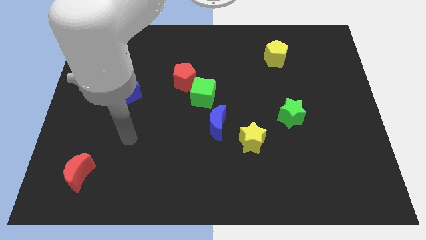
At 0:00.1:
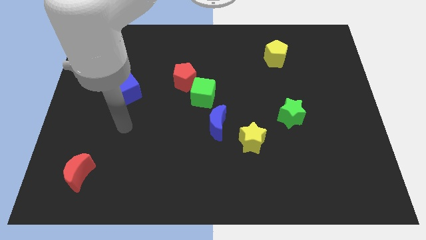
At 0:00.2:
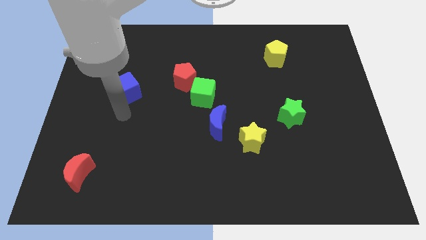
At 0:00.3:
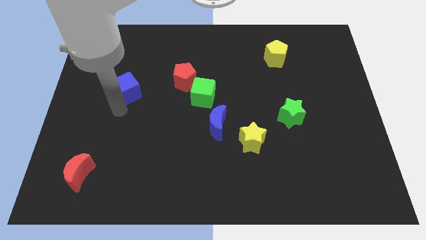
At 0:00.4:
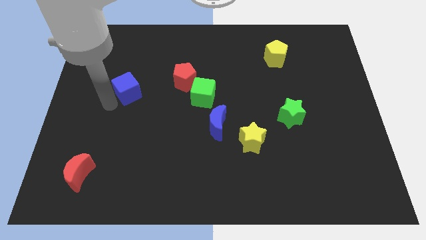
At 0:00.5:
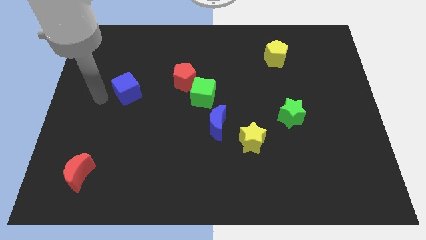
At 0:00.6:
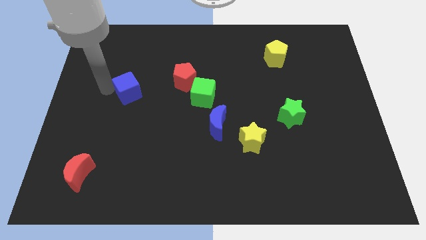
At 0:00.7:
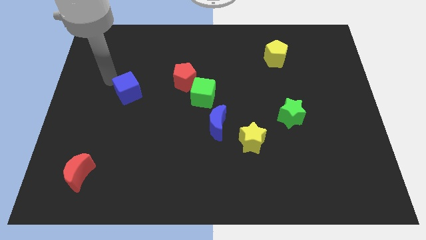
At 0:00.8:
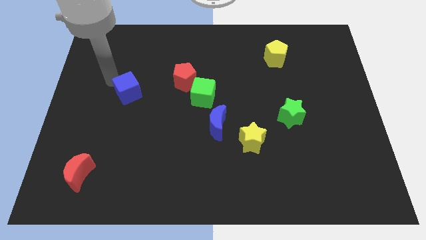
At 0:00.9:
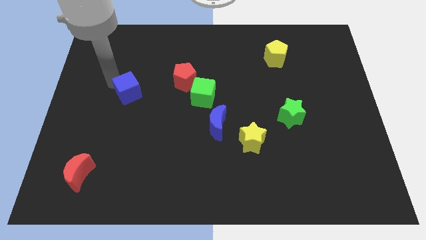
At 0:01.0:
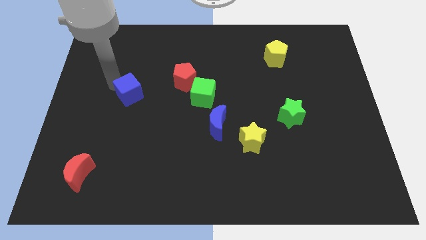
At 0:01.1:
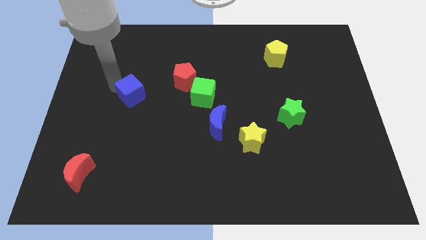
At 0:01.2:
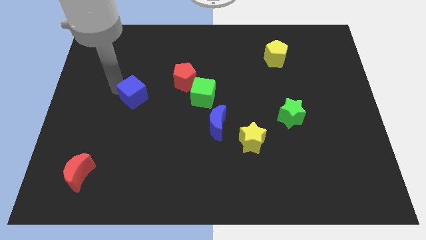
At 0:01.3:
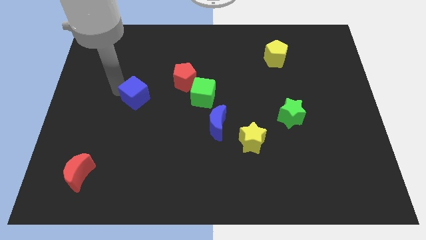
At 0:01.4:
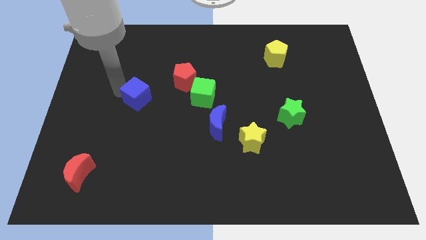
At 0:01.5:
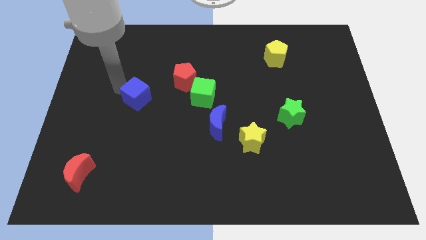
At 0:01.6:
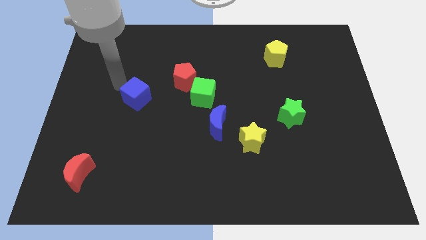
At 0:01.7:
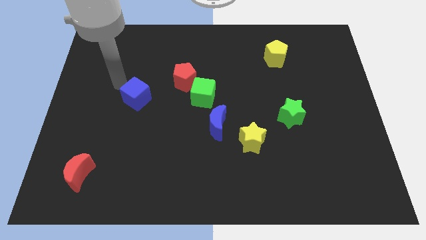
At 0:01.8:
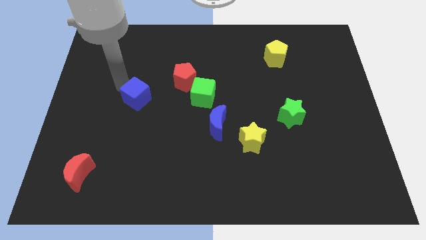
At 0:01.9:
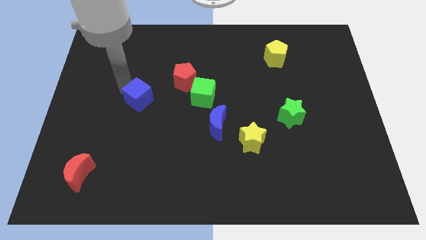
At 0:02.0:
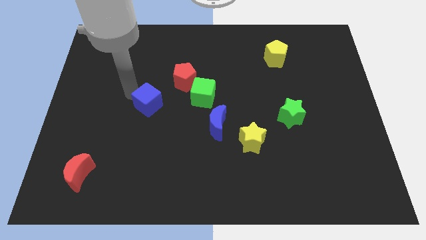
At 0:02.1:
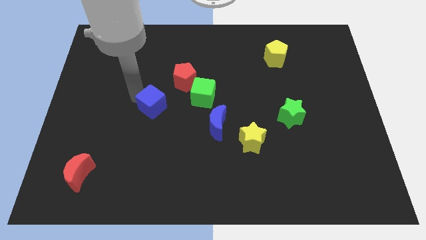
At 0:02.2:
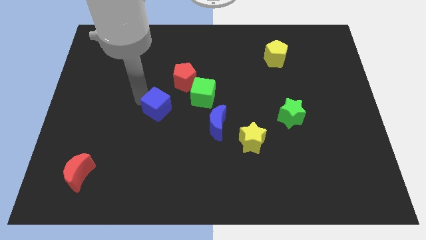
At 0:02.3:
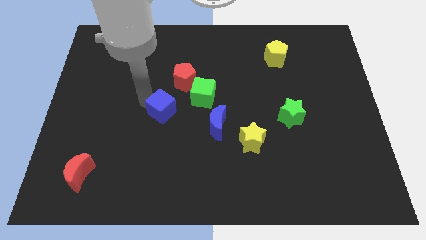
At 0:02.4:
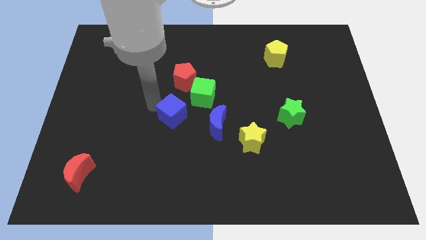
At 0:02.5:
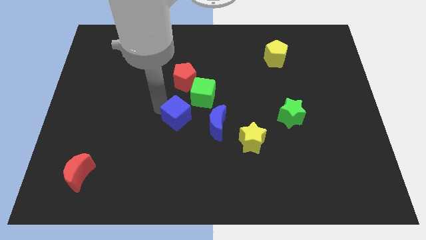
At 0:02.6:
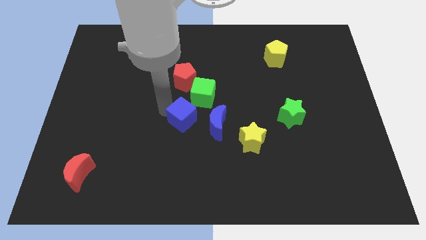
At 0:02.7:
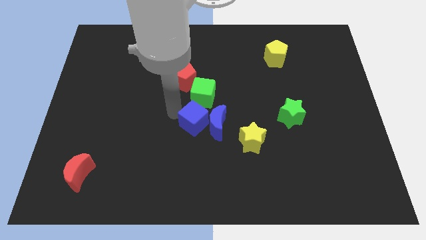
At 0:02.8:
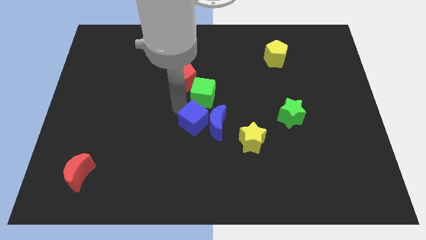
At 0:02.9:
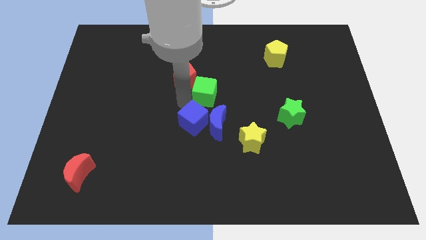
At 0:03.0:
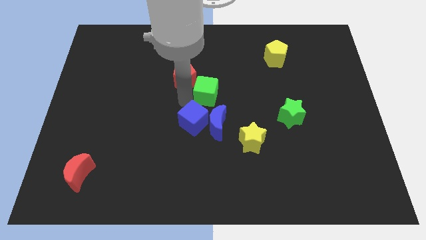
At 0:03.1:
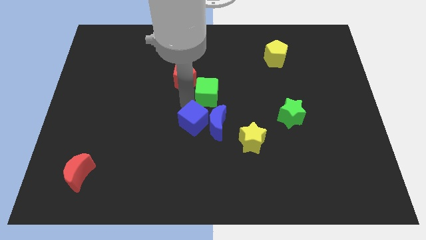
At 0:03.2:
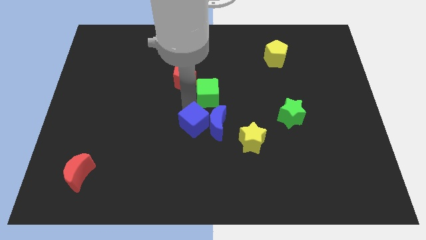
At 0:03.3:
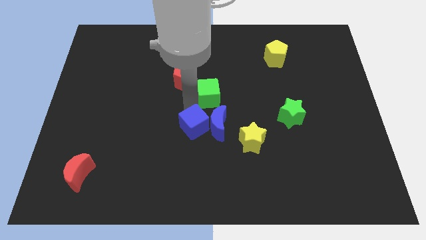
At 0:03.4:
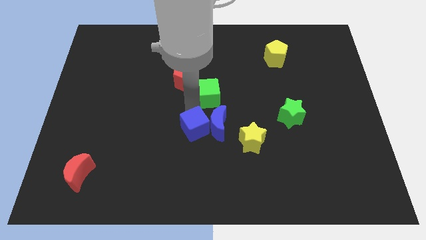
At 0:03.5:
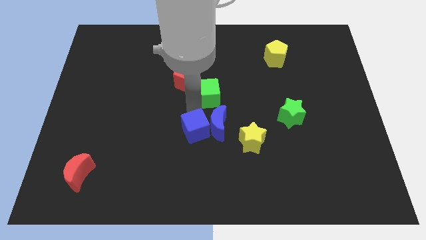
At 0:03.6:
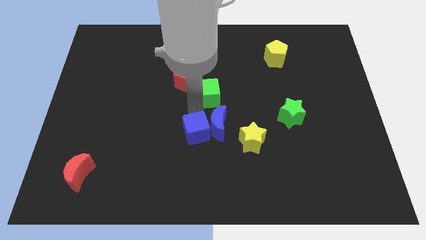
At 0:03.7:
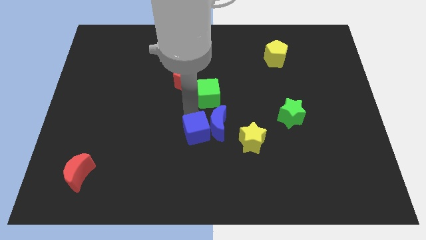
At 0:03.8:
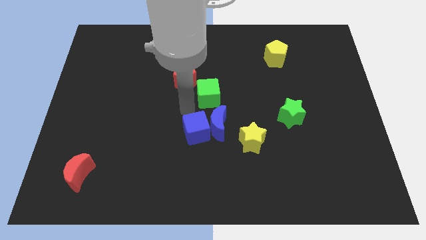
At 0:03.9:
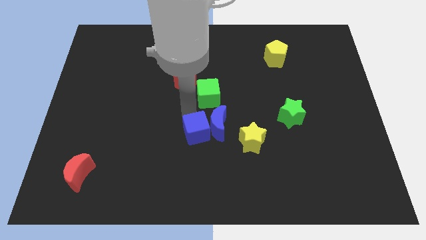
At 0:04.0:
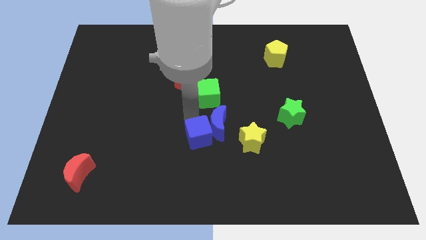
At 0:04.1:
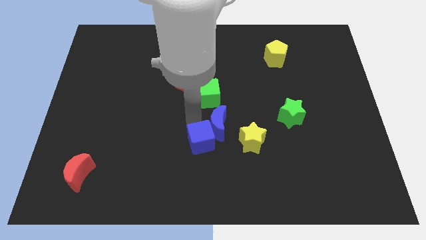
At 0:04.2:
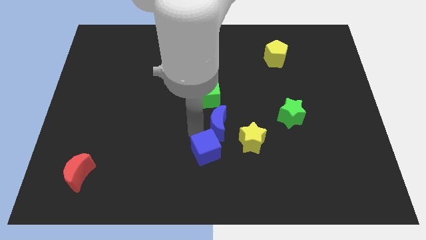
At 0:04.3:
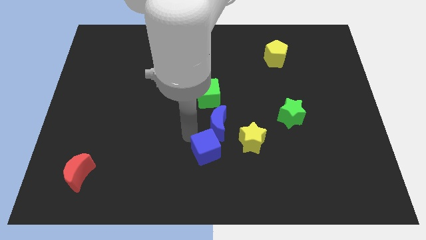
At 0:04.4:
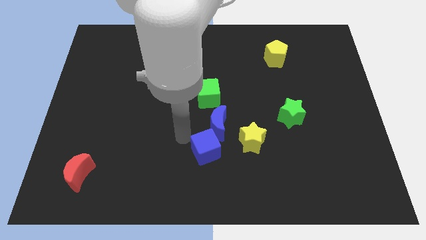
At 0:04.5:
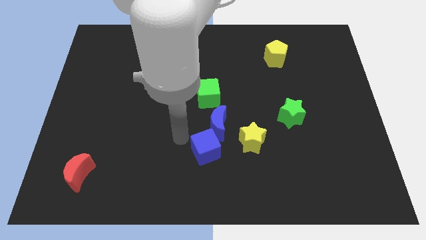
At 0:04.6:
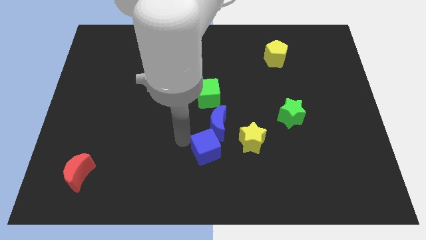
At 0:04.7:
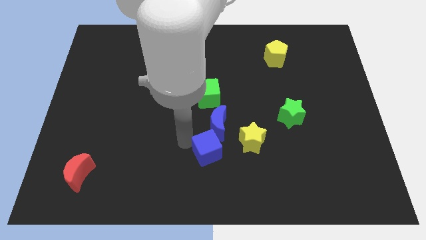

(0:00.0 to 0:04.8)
slide the blue cube to the bottom left side of the yellow star

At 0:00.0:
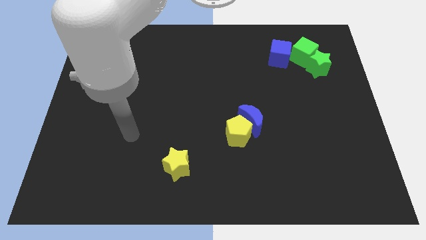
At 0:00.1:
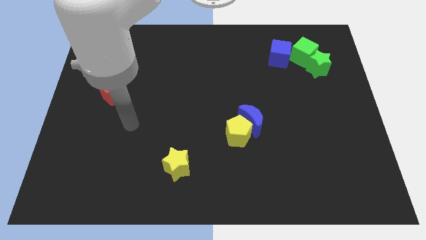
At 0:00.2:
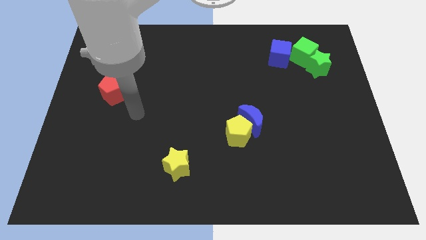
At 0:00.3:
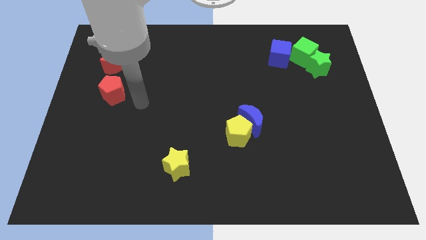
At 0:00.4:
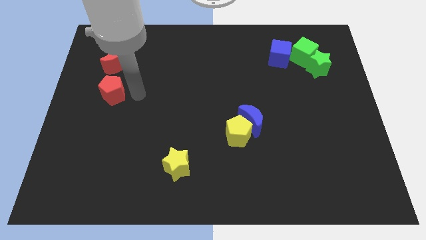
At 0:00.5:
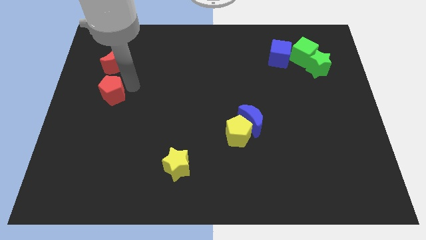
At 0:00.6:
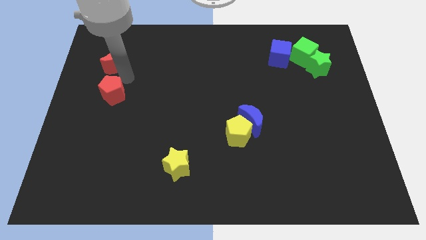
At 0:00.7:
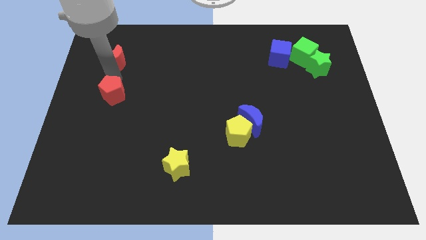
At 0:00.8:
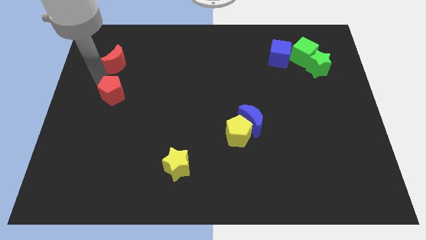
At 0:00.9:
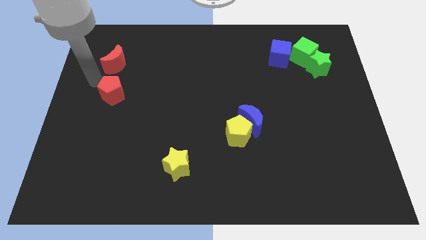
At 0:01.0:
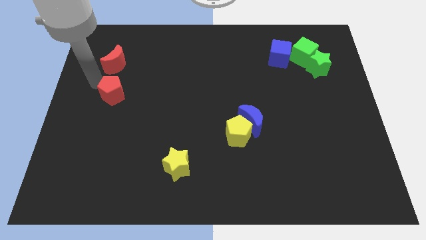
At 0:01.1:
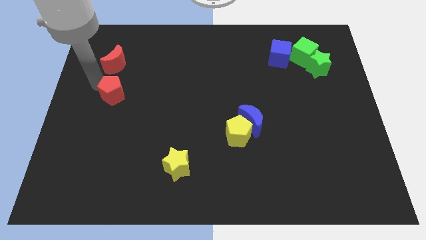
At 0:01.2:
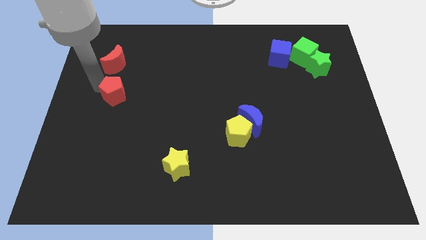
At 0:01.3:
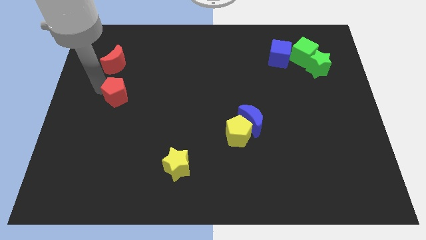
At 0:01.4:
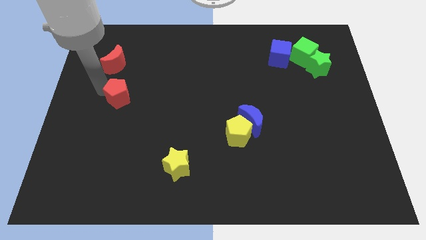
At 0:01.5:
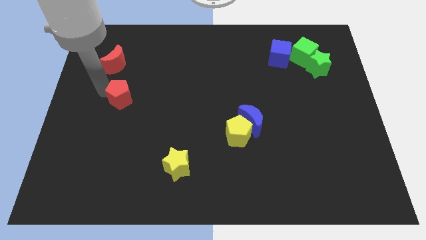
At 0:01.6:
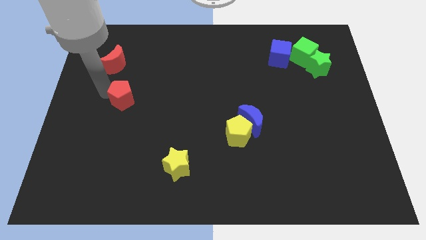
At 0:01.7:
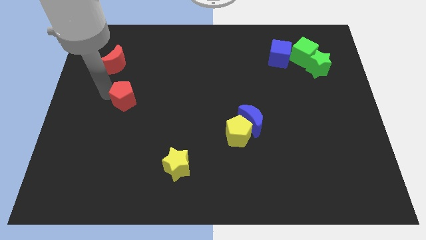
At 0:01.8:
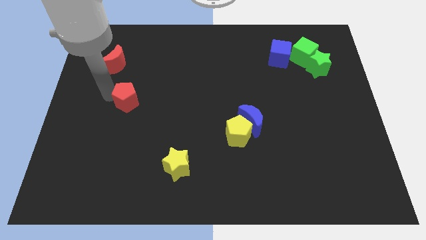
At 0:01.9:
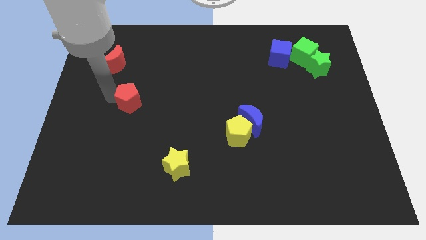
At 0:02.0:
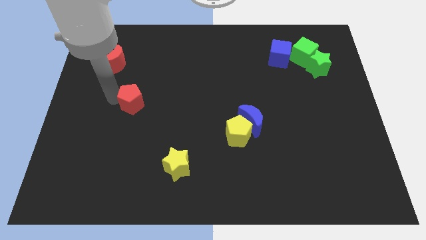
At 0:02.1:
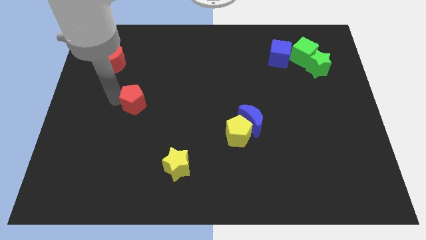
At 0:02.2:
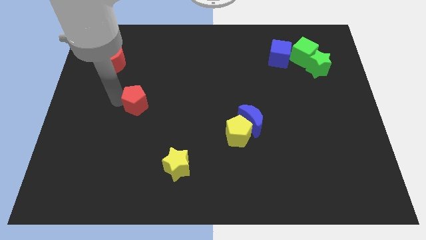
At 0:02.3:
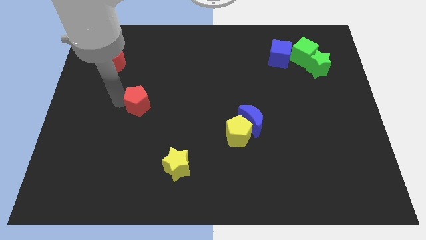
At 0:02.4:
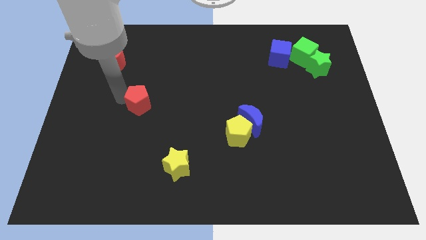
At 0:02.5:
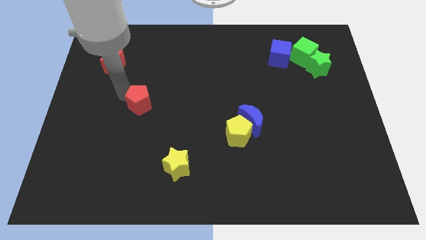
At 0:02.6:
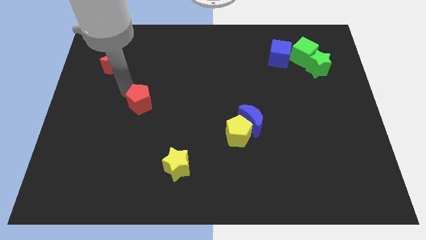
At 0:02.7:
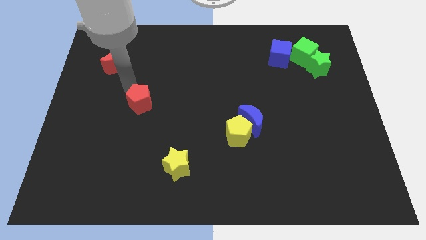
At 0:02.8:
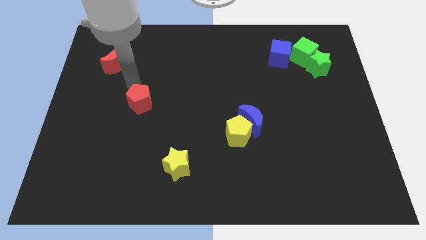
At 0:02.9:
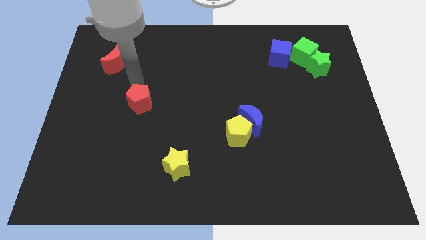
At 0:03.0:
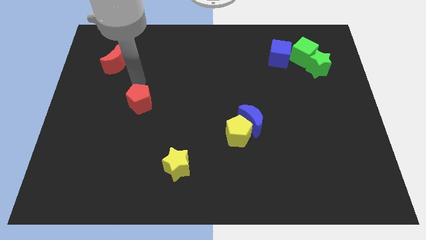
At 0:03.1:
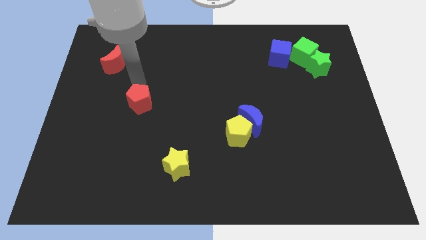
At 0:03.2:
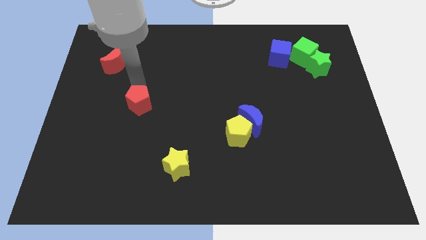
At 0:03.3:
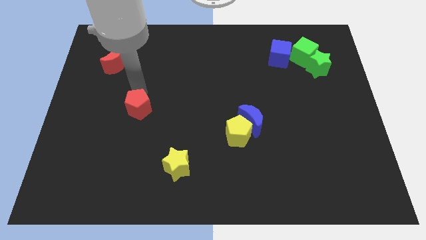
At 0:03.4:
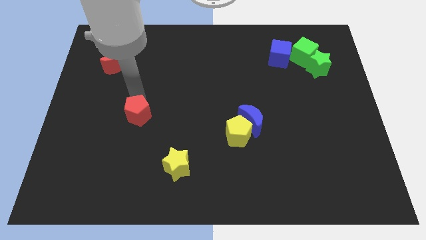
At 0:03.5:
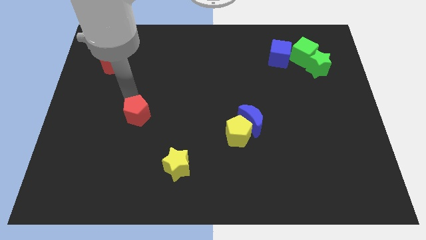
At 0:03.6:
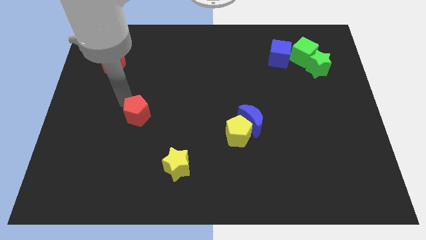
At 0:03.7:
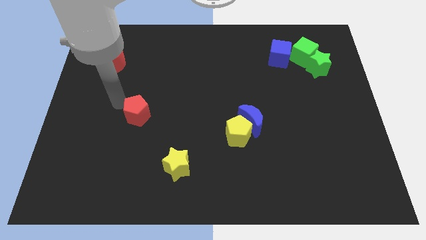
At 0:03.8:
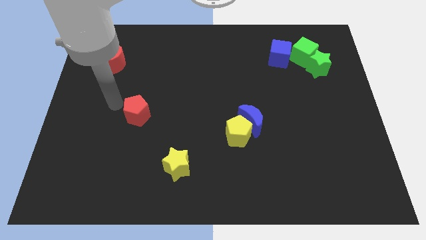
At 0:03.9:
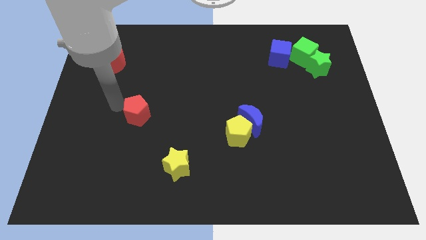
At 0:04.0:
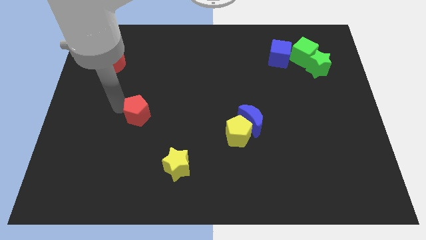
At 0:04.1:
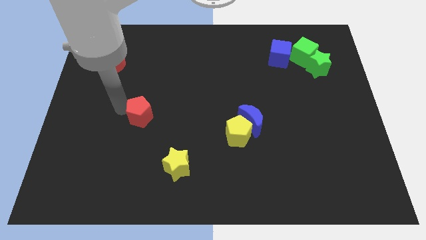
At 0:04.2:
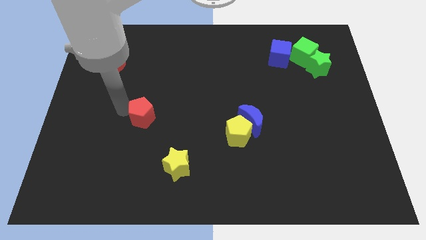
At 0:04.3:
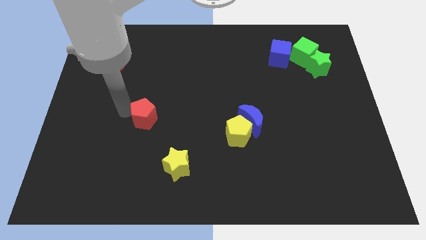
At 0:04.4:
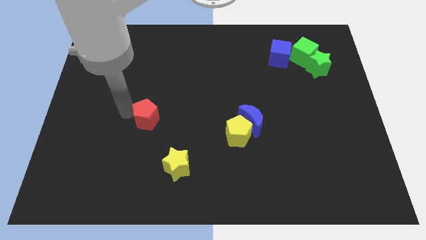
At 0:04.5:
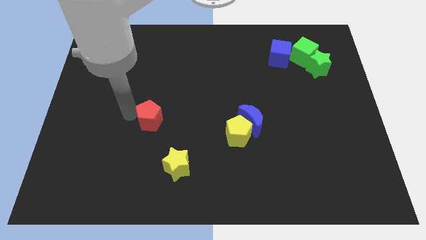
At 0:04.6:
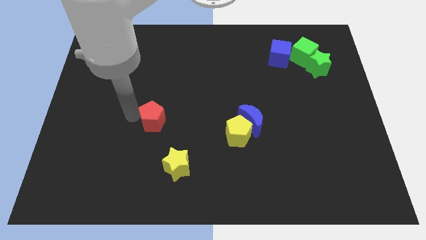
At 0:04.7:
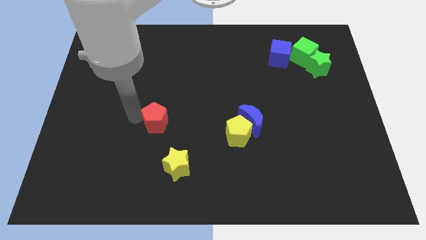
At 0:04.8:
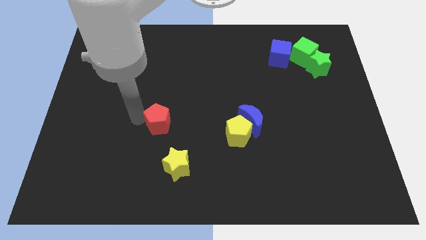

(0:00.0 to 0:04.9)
push the red pentagon to the top of the yellow star
